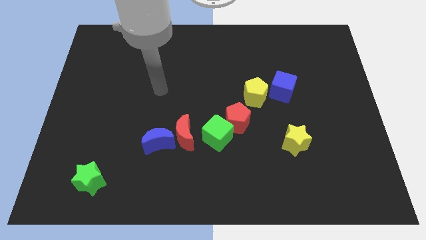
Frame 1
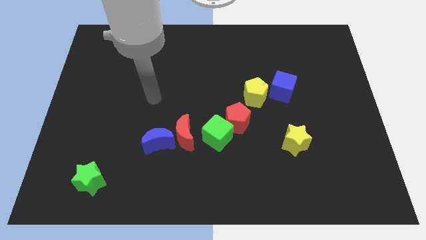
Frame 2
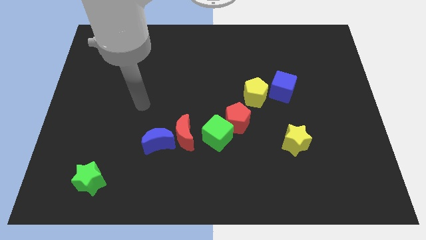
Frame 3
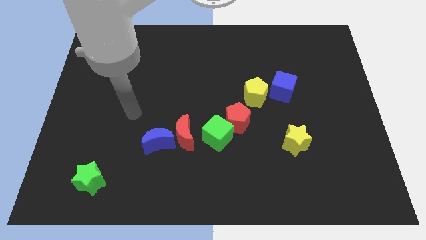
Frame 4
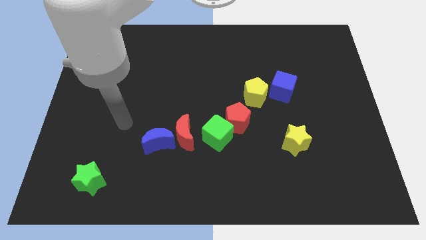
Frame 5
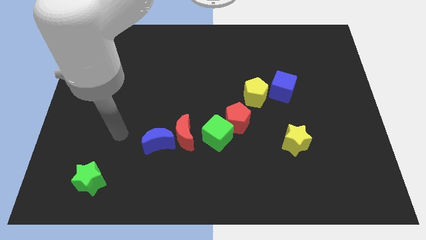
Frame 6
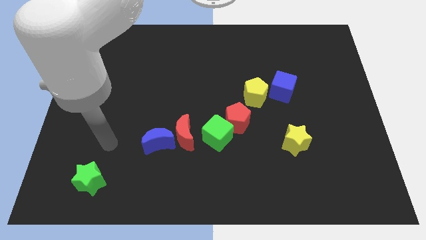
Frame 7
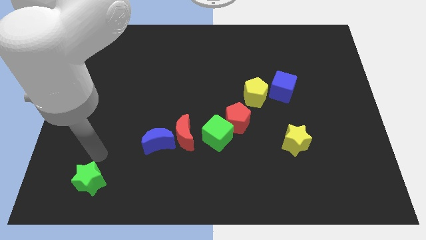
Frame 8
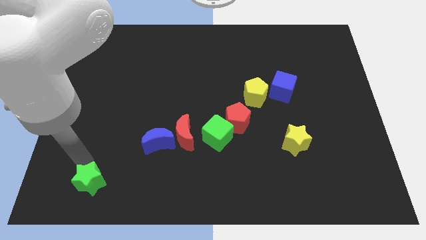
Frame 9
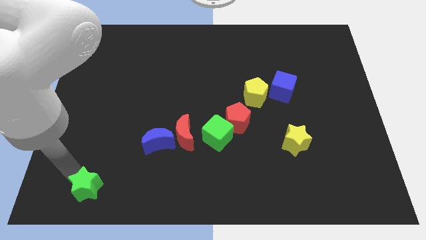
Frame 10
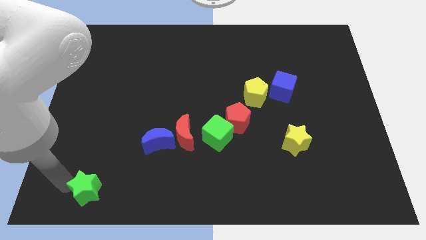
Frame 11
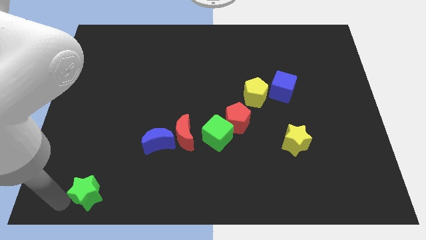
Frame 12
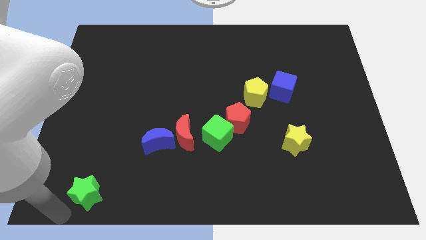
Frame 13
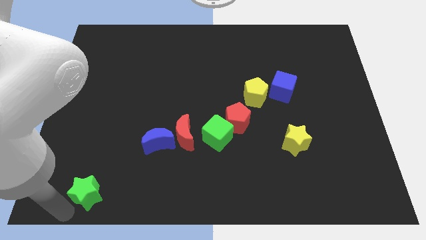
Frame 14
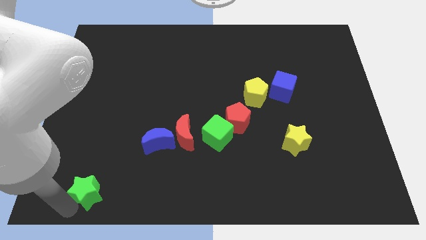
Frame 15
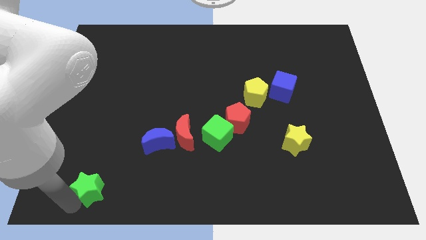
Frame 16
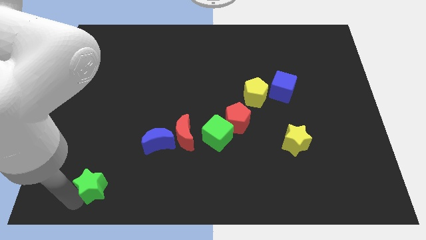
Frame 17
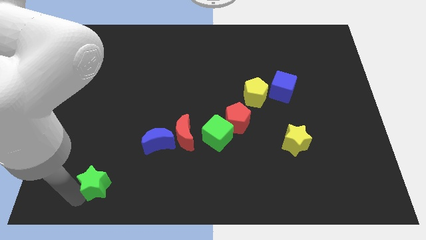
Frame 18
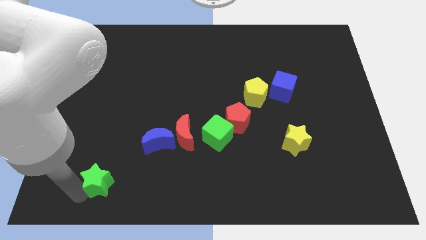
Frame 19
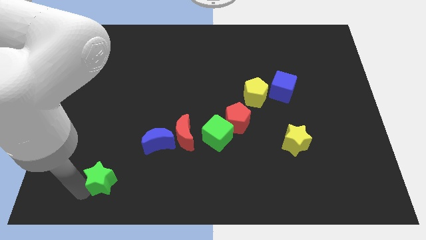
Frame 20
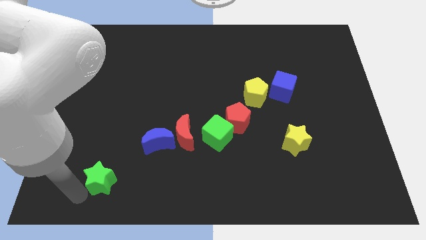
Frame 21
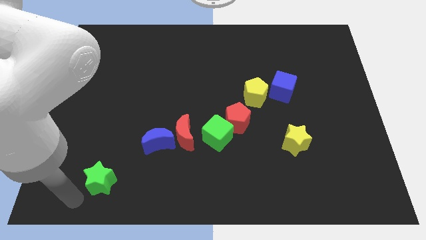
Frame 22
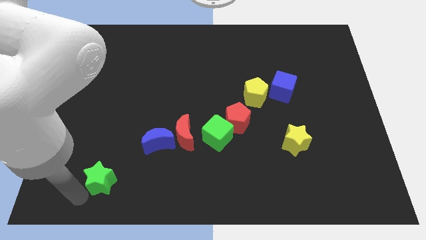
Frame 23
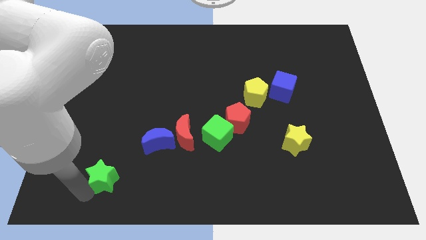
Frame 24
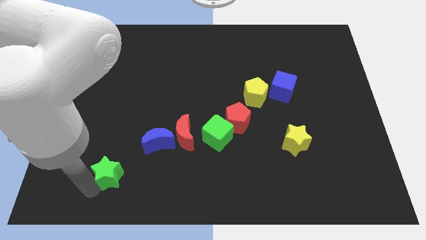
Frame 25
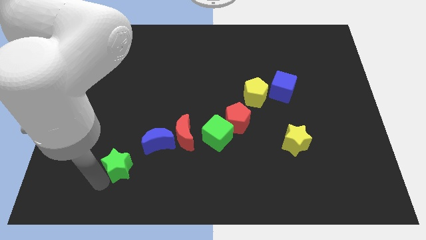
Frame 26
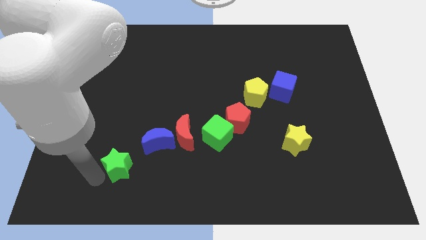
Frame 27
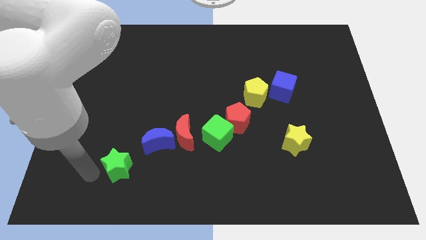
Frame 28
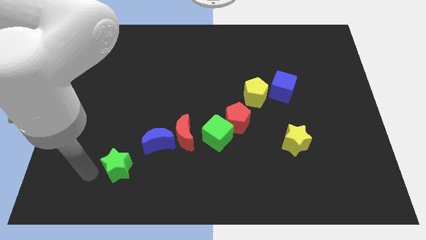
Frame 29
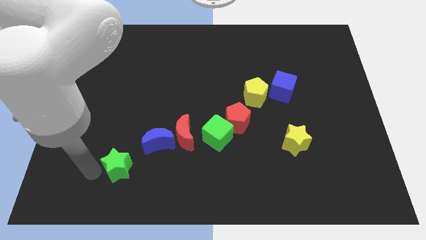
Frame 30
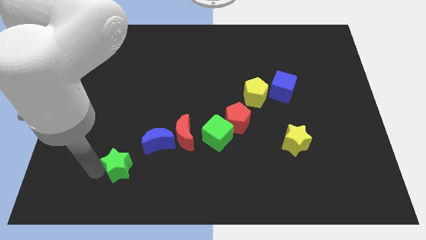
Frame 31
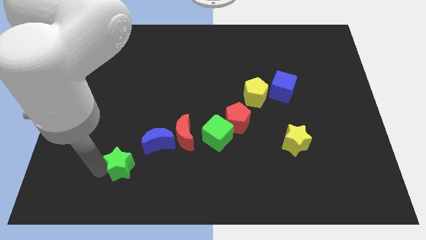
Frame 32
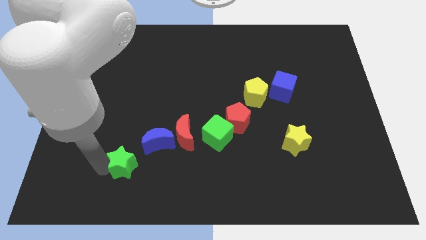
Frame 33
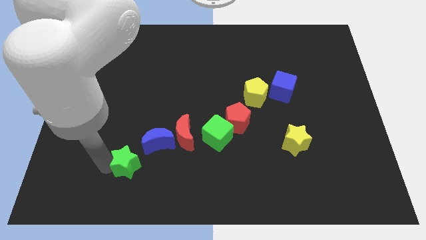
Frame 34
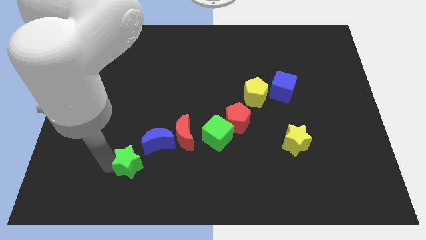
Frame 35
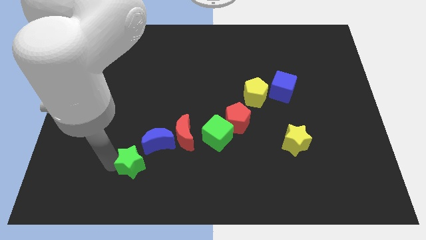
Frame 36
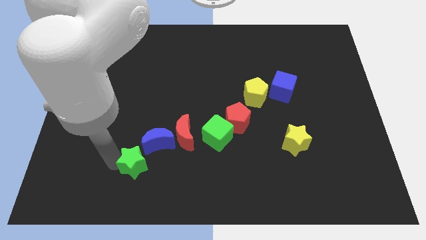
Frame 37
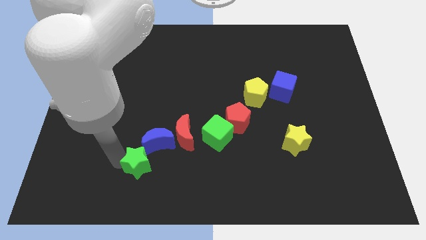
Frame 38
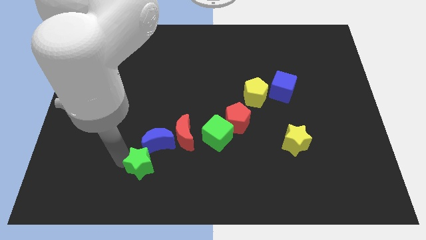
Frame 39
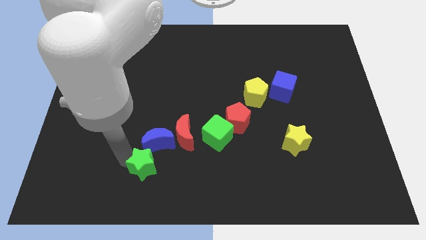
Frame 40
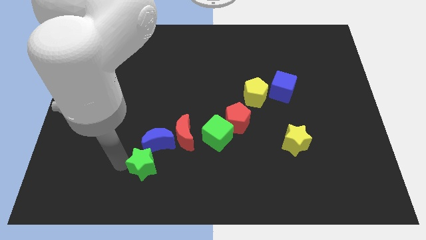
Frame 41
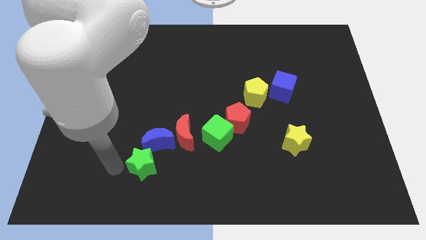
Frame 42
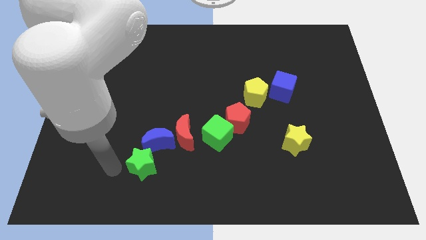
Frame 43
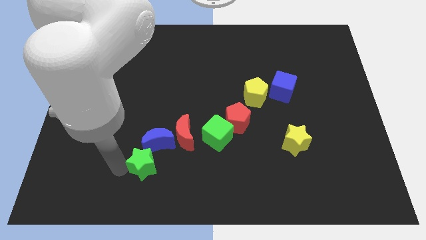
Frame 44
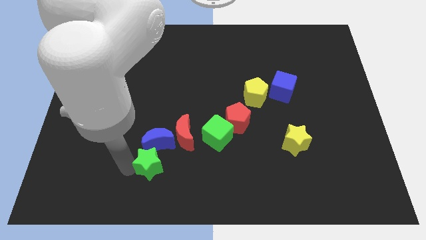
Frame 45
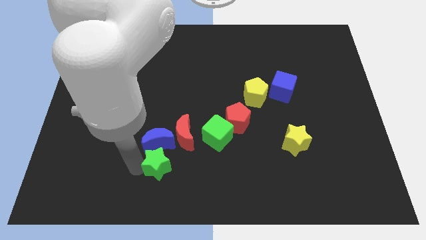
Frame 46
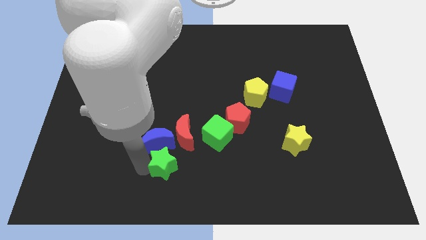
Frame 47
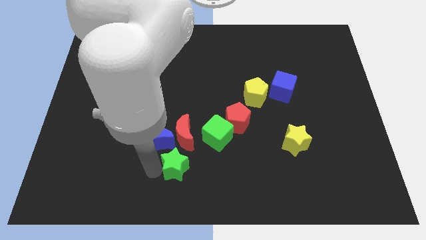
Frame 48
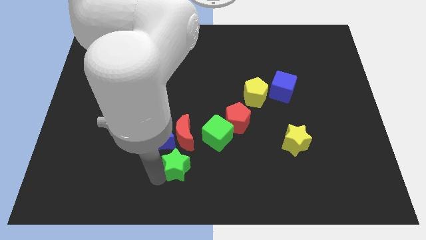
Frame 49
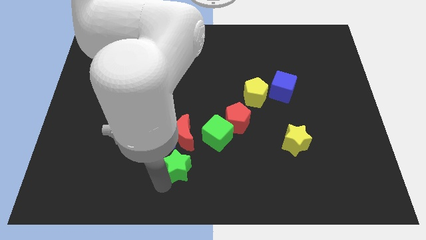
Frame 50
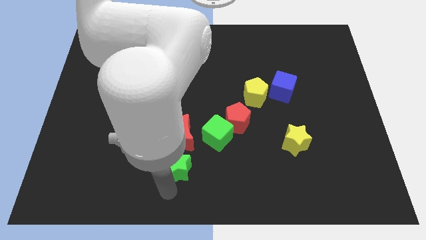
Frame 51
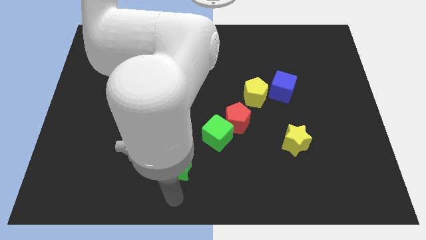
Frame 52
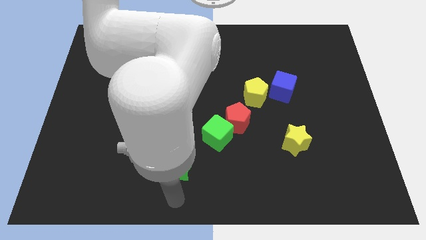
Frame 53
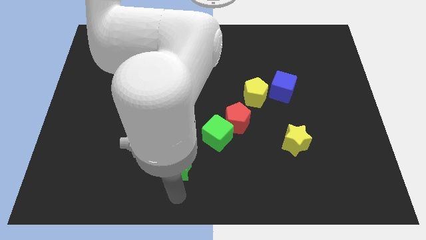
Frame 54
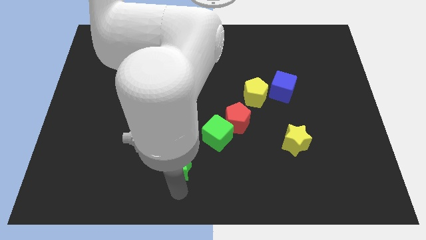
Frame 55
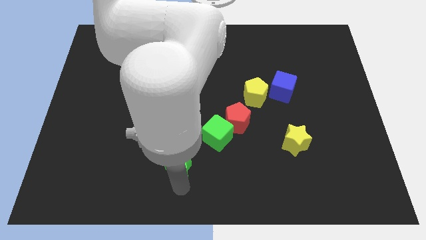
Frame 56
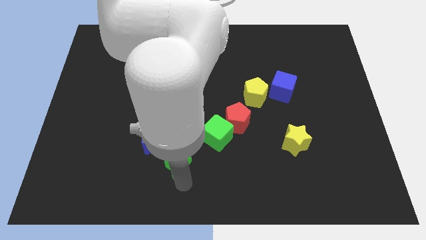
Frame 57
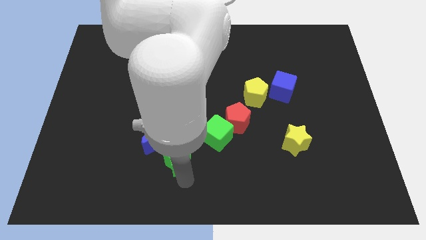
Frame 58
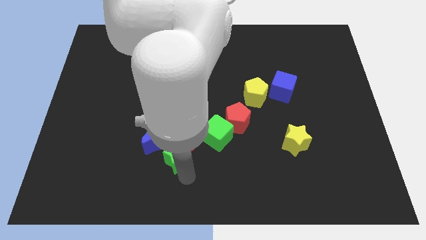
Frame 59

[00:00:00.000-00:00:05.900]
push the green star close to the red moon

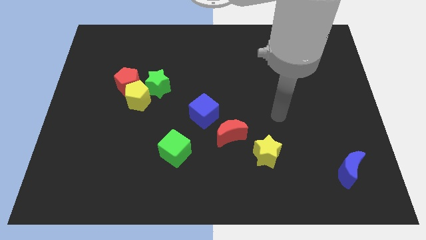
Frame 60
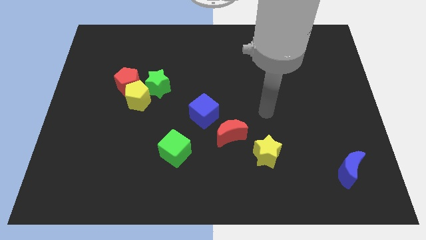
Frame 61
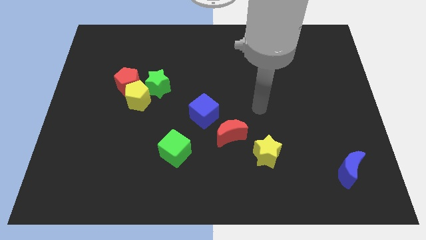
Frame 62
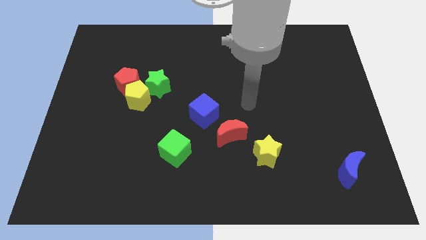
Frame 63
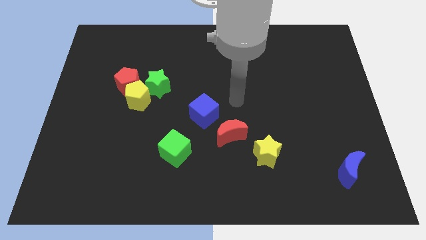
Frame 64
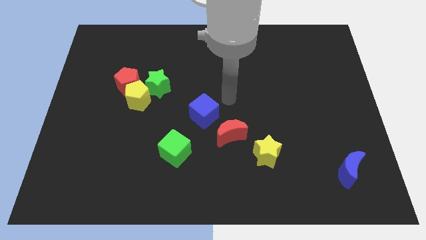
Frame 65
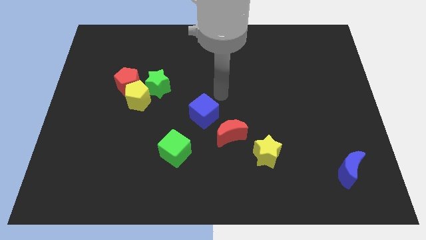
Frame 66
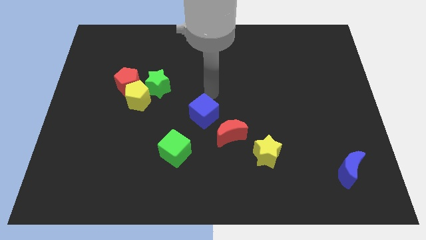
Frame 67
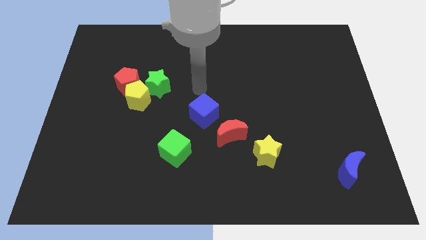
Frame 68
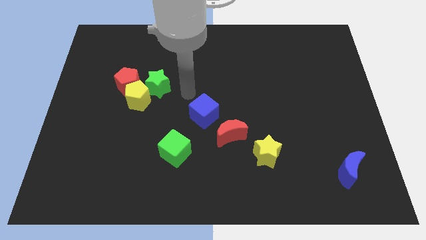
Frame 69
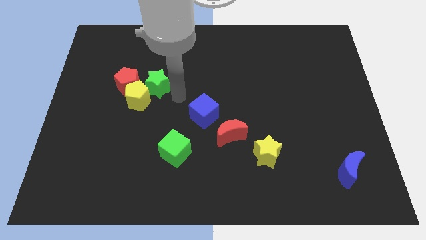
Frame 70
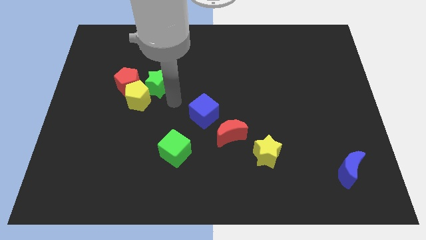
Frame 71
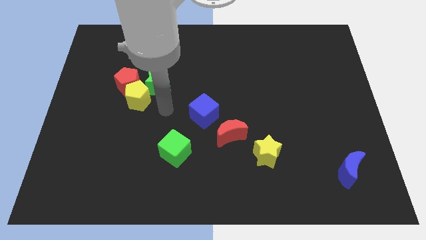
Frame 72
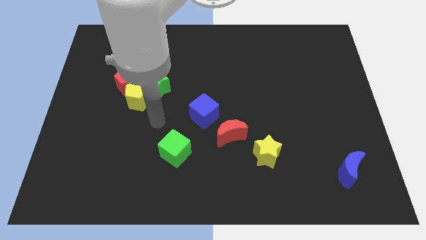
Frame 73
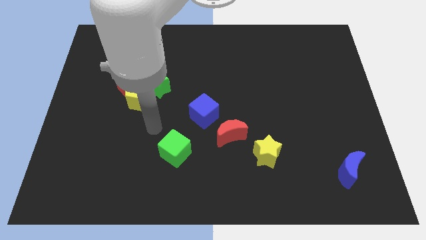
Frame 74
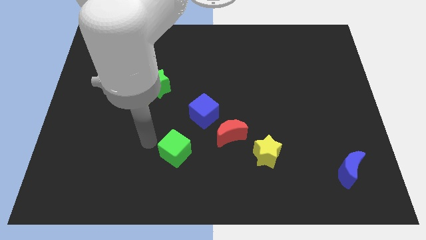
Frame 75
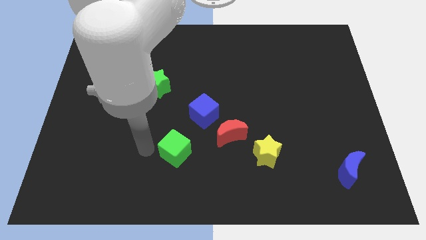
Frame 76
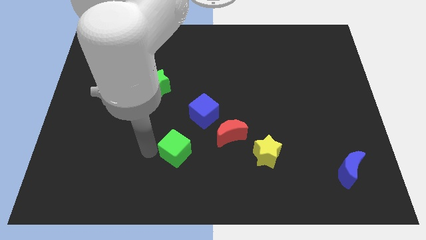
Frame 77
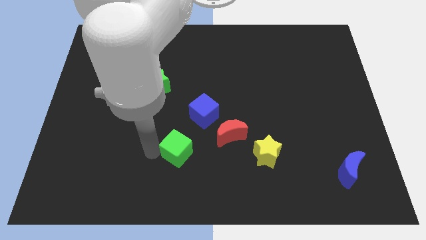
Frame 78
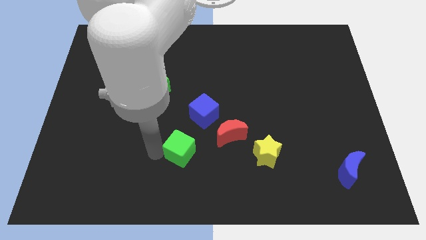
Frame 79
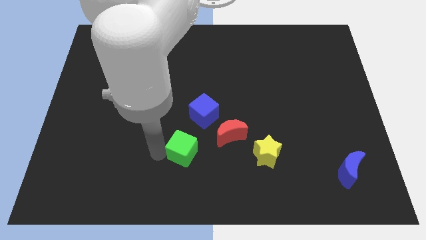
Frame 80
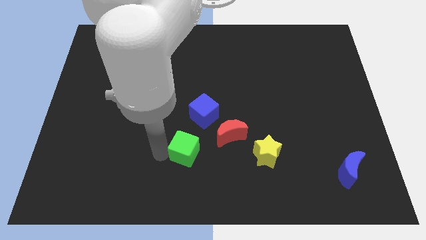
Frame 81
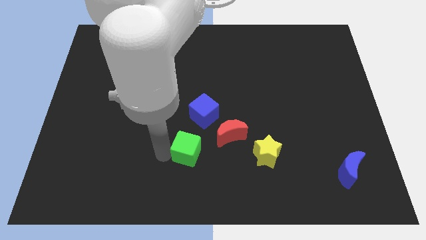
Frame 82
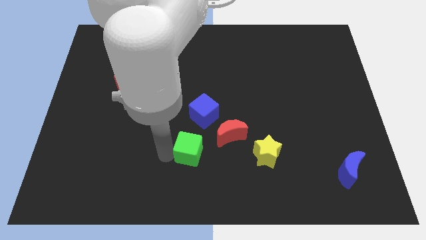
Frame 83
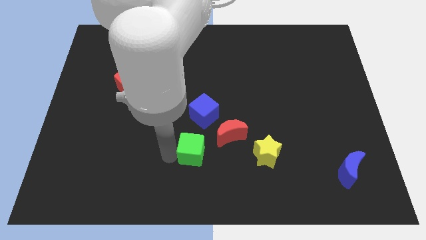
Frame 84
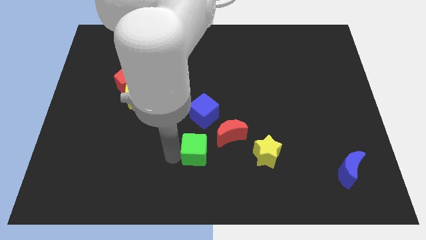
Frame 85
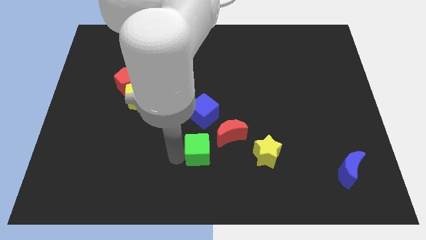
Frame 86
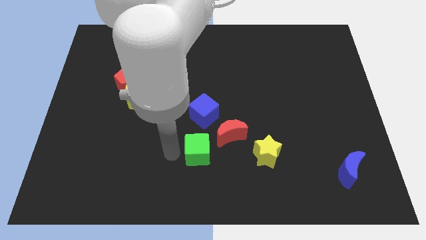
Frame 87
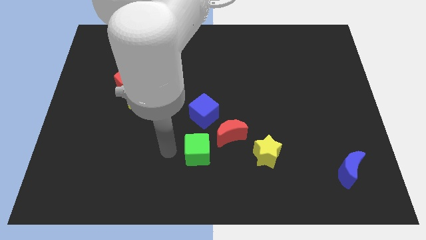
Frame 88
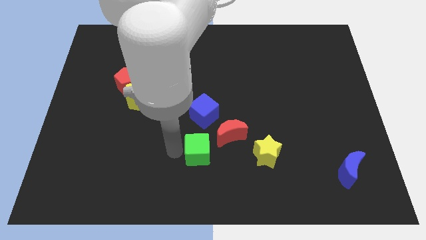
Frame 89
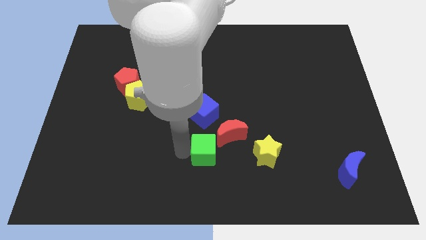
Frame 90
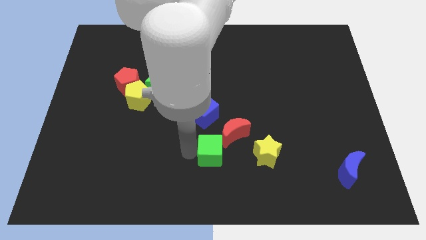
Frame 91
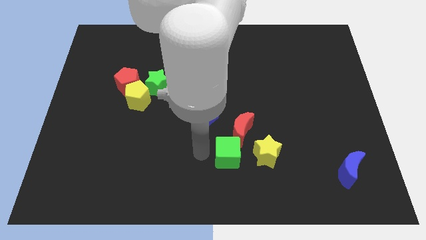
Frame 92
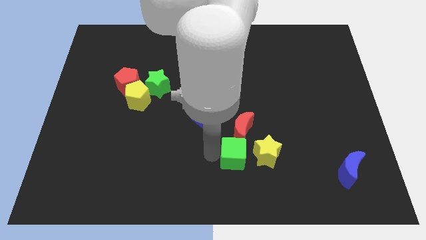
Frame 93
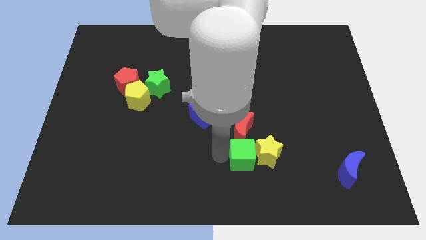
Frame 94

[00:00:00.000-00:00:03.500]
move the green cube towards the yellow star
